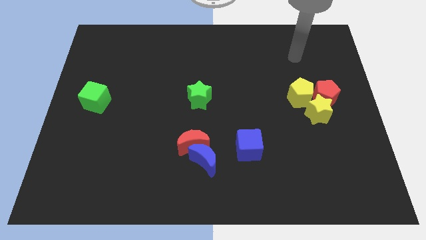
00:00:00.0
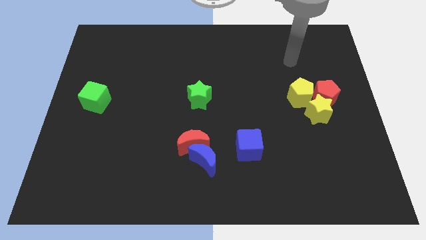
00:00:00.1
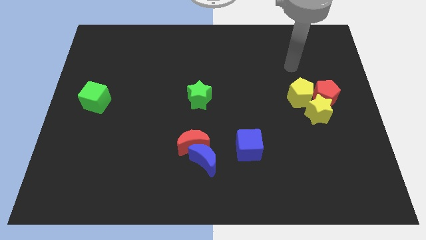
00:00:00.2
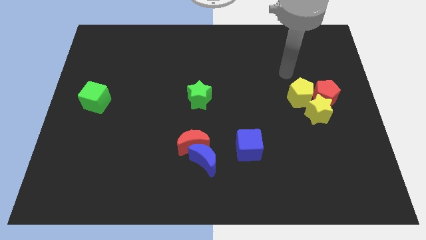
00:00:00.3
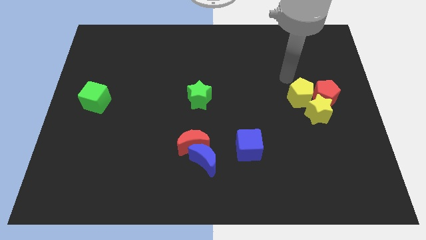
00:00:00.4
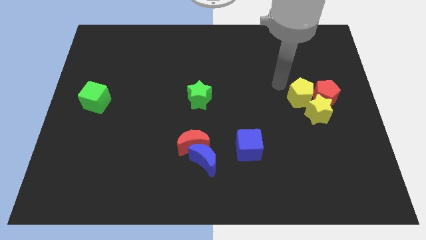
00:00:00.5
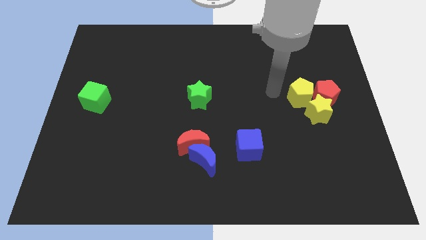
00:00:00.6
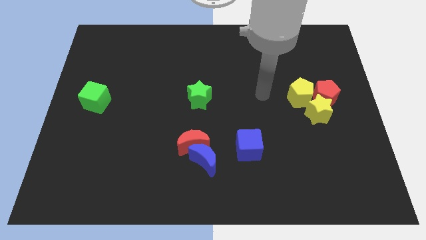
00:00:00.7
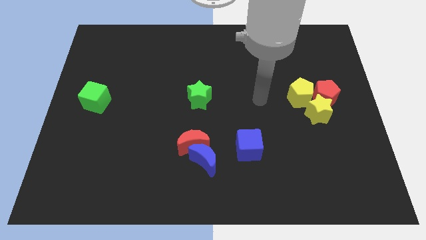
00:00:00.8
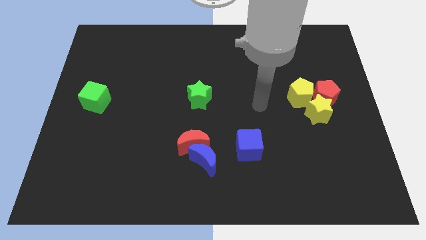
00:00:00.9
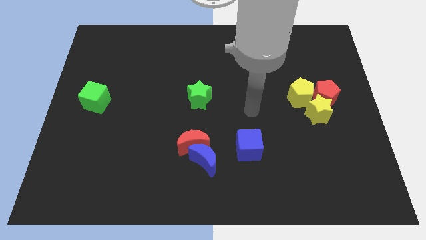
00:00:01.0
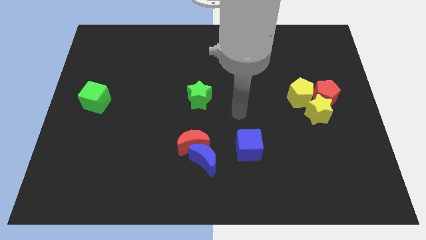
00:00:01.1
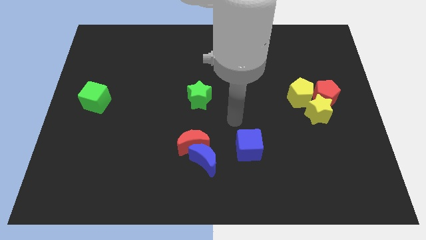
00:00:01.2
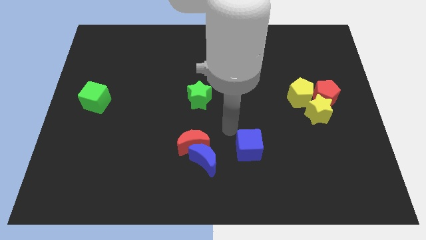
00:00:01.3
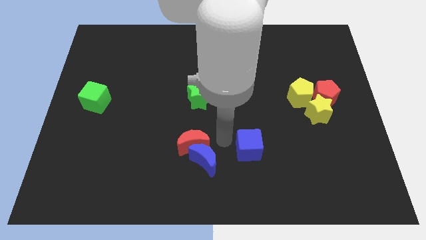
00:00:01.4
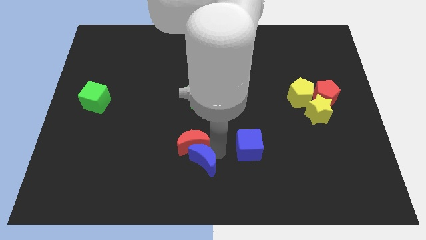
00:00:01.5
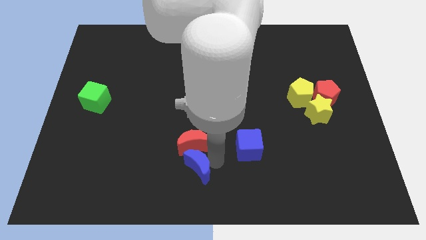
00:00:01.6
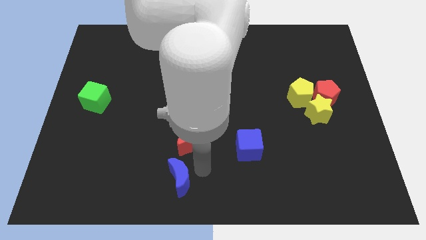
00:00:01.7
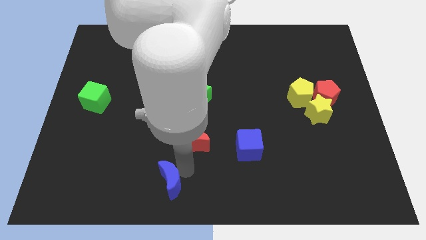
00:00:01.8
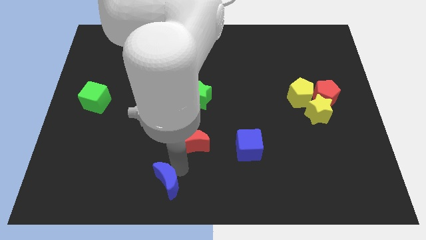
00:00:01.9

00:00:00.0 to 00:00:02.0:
pull the red moon apart from the blue moon

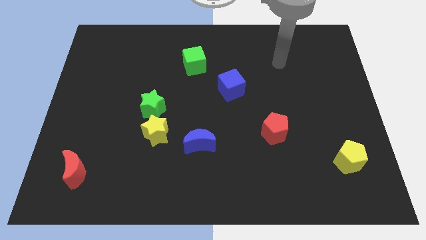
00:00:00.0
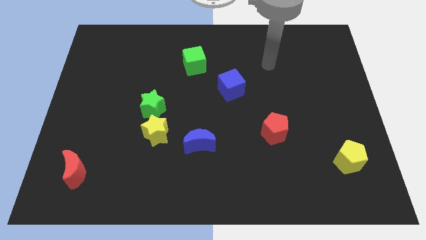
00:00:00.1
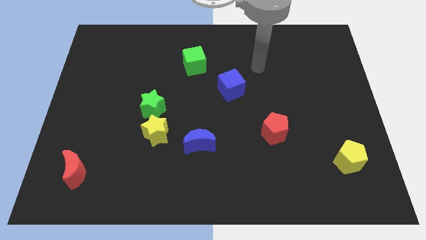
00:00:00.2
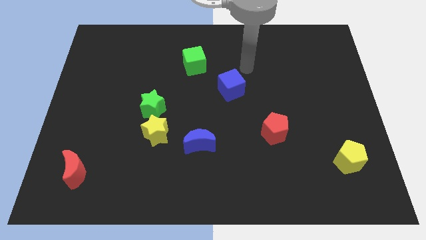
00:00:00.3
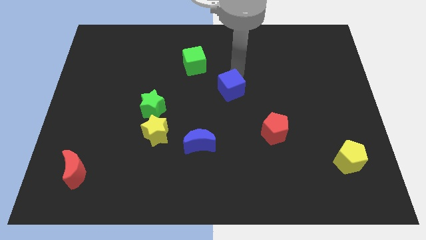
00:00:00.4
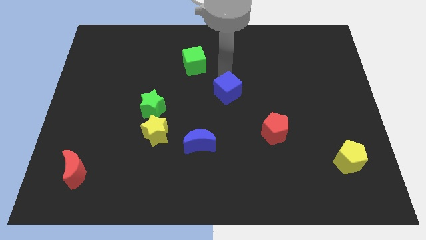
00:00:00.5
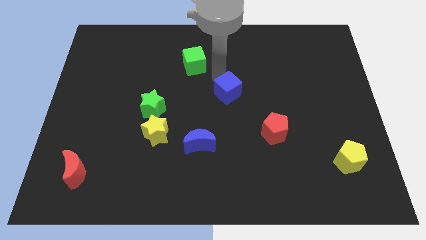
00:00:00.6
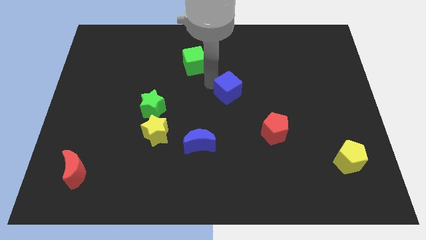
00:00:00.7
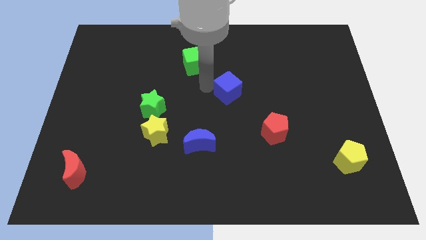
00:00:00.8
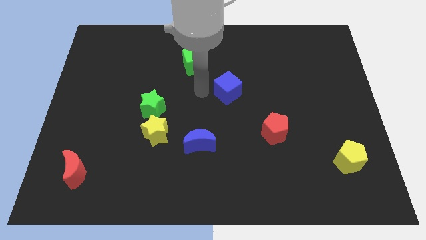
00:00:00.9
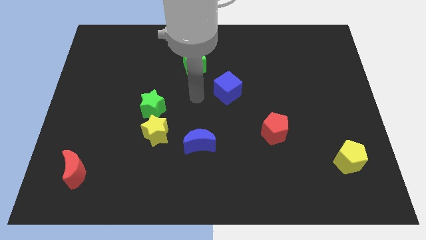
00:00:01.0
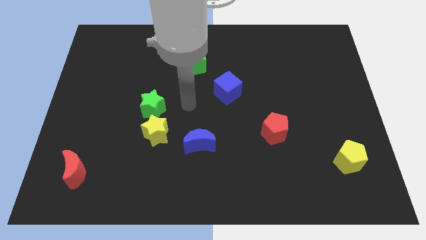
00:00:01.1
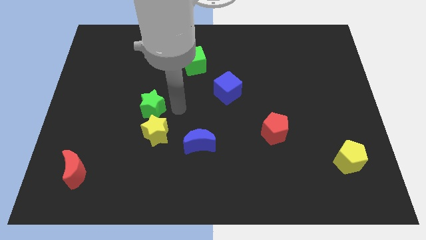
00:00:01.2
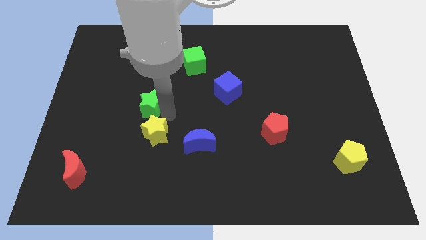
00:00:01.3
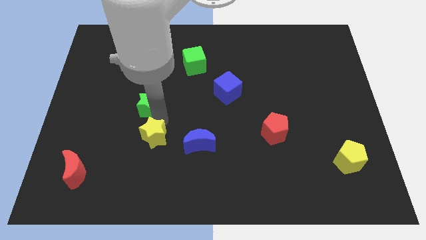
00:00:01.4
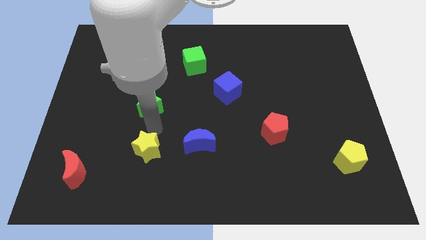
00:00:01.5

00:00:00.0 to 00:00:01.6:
separate the green star from the yellow star

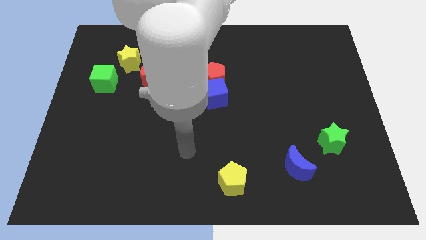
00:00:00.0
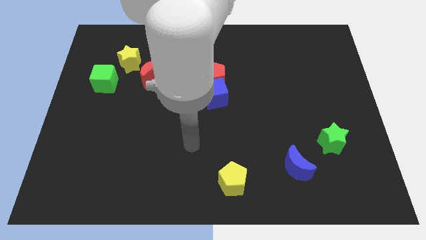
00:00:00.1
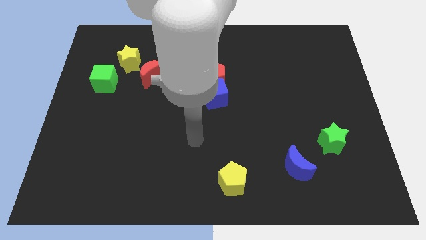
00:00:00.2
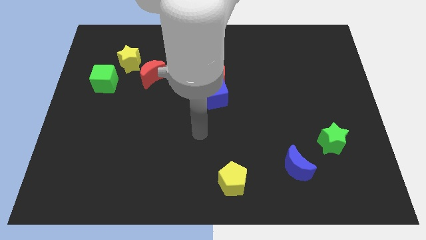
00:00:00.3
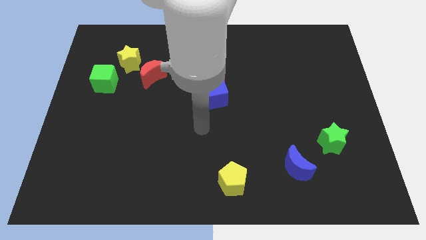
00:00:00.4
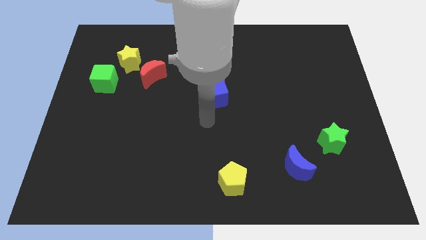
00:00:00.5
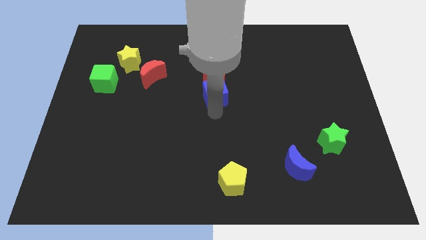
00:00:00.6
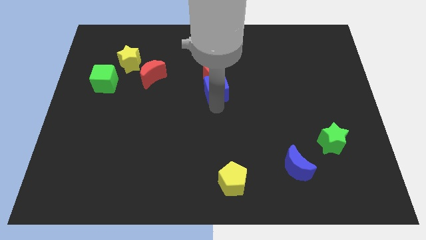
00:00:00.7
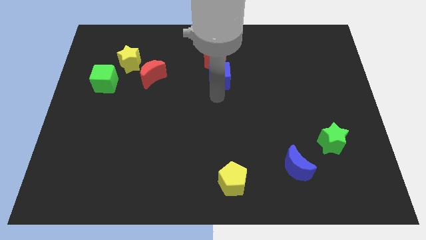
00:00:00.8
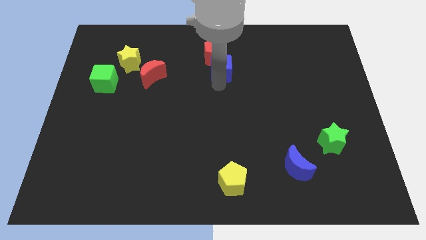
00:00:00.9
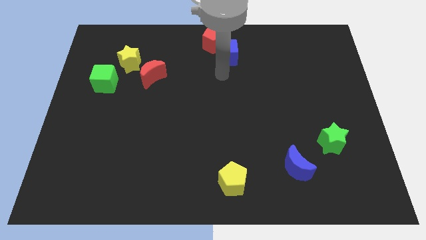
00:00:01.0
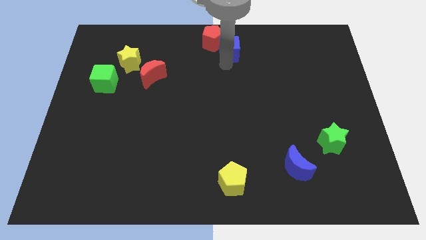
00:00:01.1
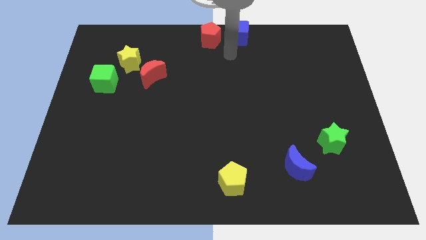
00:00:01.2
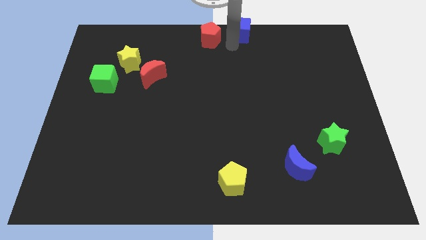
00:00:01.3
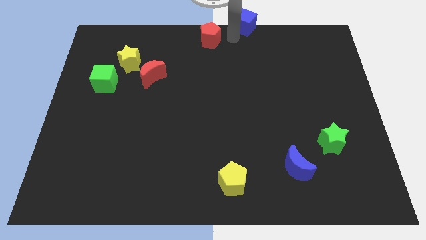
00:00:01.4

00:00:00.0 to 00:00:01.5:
move the red pentagon away from the blue cube

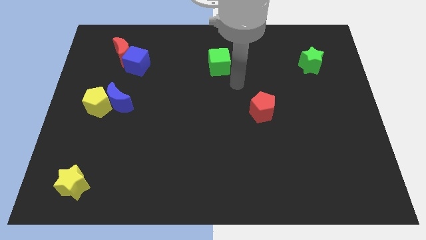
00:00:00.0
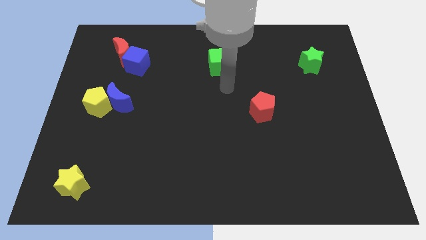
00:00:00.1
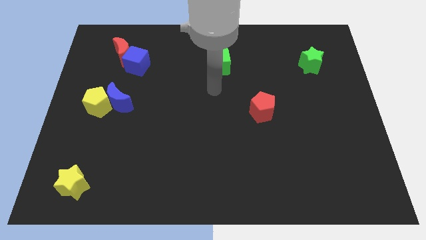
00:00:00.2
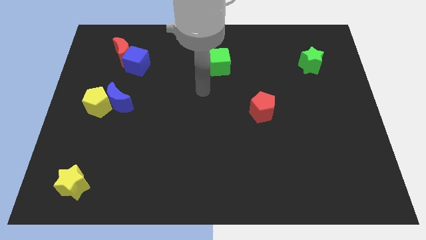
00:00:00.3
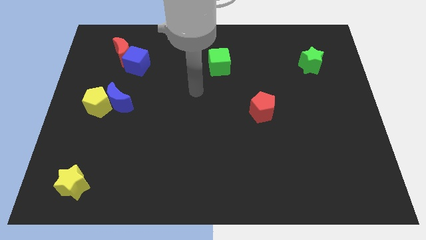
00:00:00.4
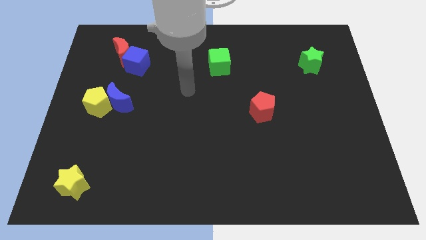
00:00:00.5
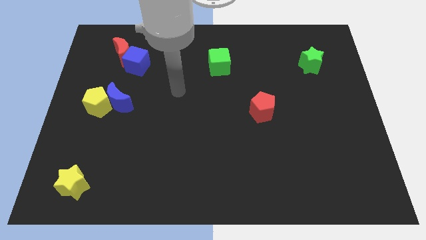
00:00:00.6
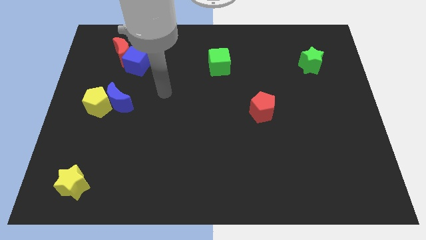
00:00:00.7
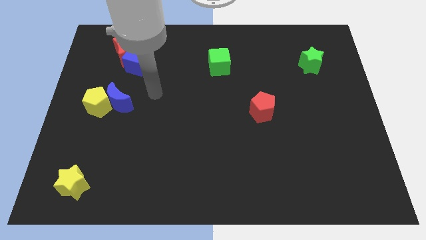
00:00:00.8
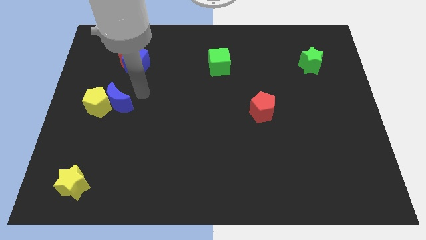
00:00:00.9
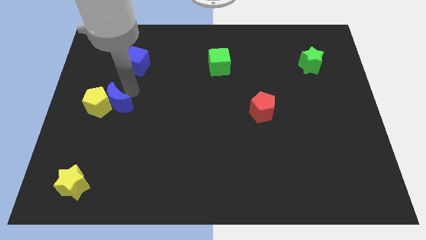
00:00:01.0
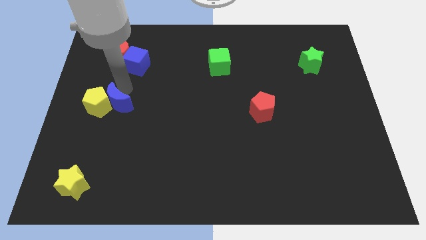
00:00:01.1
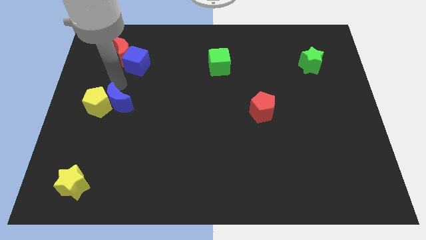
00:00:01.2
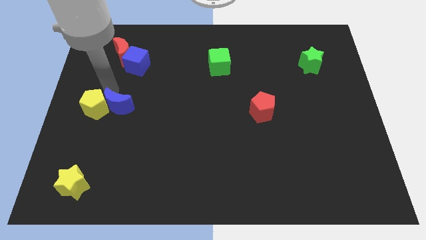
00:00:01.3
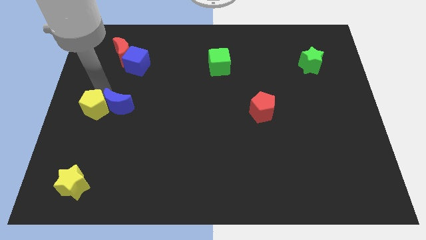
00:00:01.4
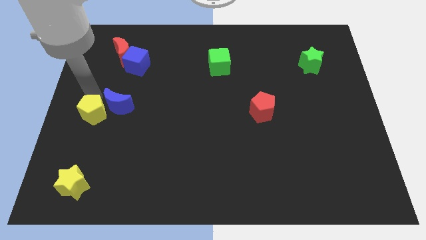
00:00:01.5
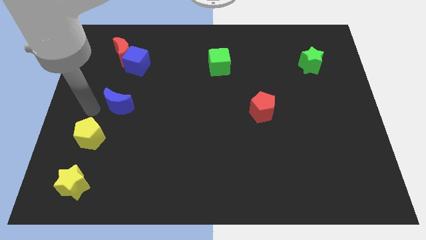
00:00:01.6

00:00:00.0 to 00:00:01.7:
move the blue moon away from the yellow pentagon

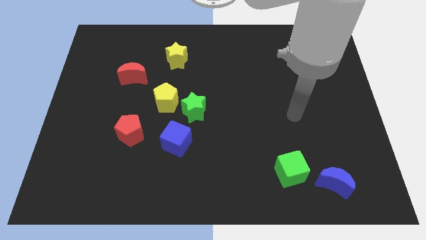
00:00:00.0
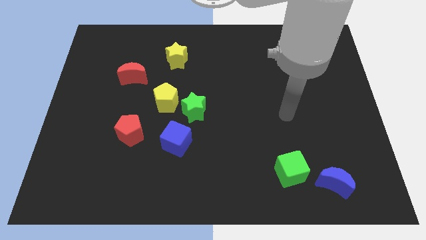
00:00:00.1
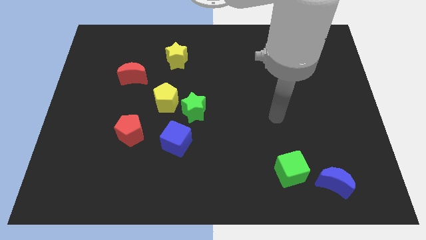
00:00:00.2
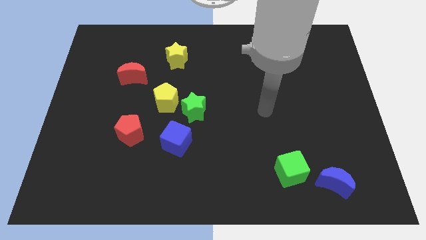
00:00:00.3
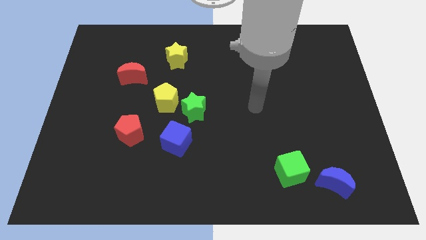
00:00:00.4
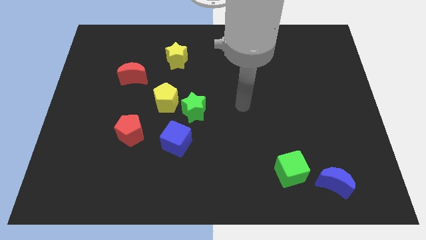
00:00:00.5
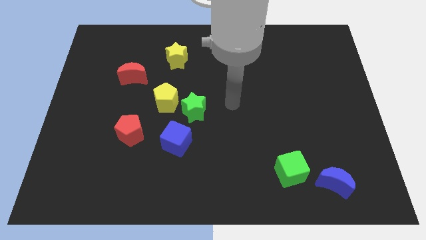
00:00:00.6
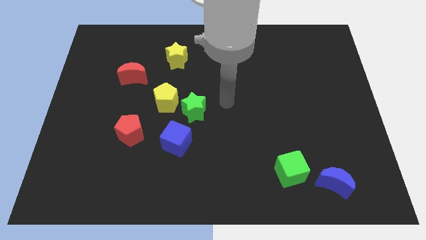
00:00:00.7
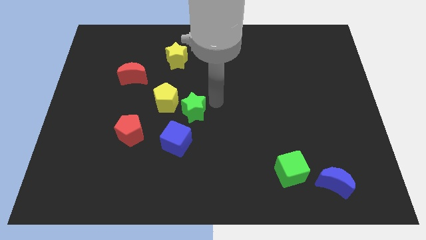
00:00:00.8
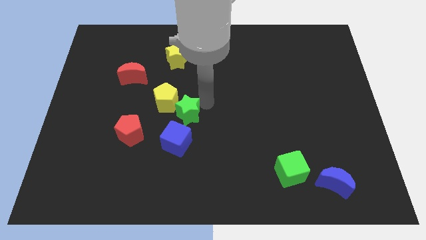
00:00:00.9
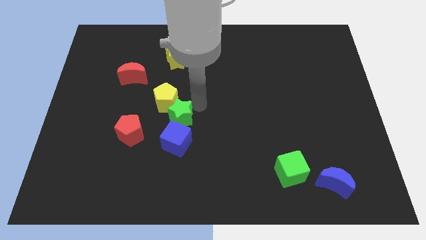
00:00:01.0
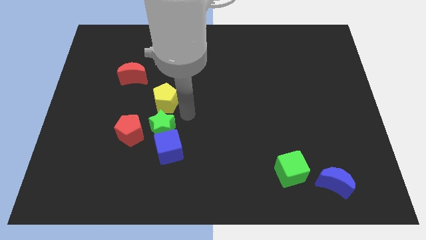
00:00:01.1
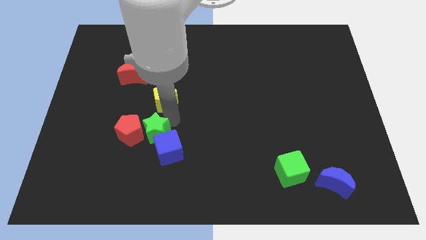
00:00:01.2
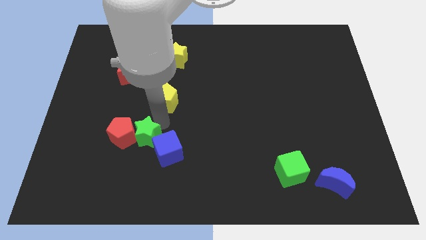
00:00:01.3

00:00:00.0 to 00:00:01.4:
move the yellow pentagon away from the green star

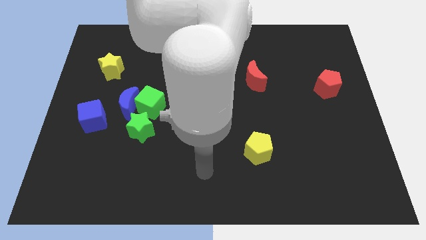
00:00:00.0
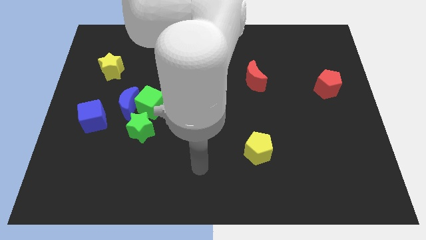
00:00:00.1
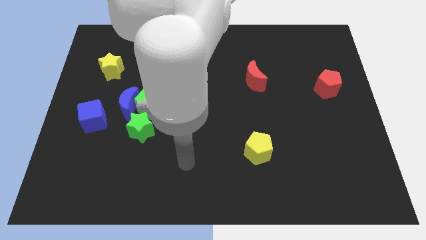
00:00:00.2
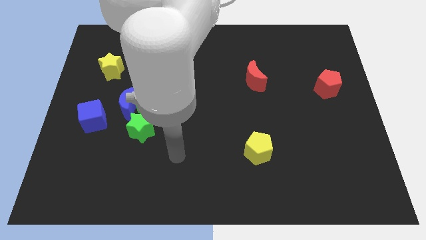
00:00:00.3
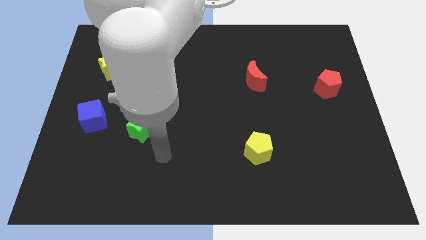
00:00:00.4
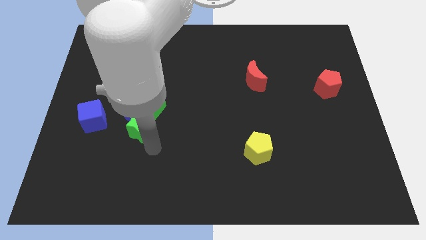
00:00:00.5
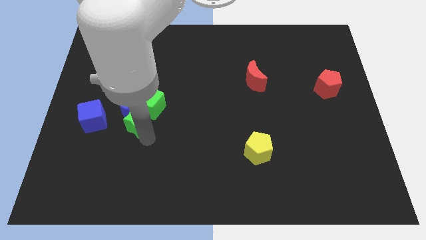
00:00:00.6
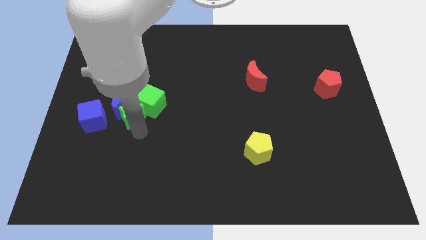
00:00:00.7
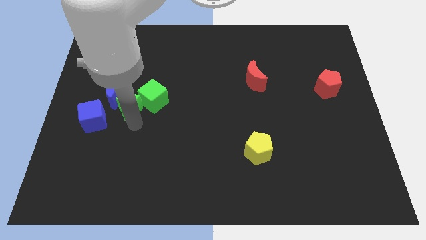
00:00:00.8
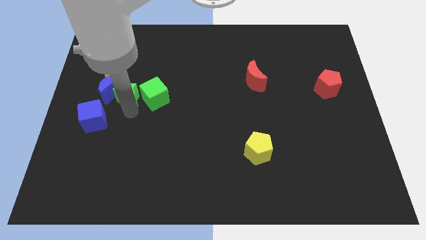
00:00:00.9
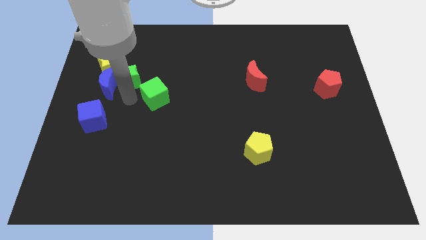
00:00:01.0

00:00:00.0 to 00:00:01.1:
pull the green cube apart from the blue moon and green star
